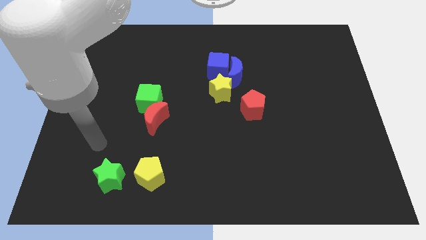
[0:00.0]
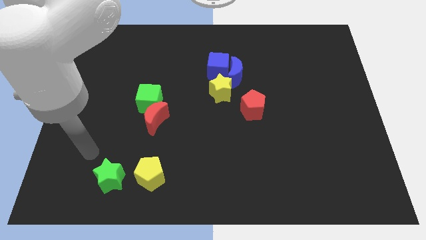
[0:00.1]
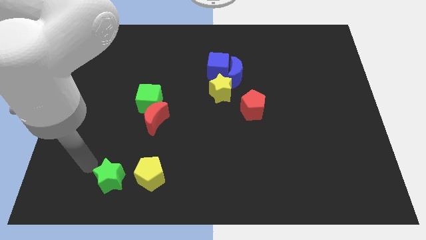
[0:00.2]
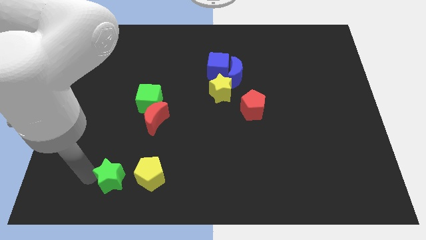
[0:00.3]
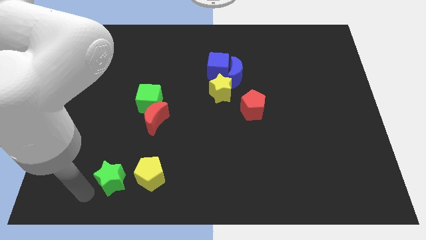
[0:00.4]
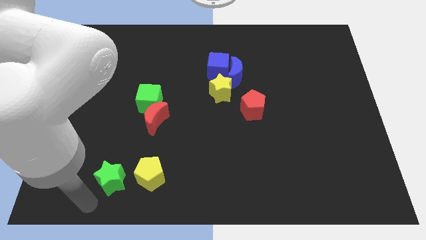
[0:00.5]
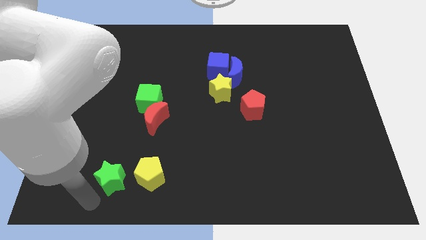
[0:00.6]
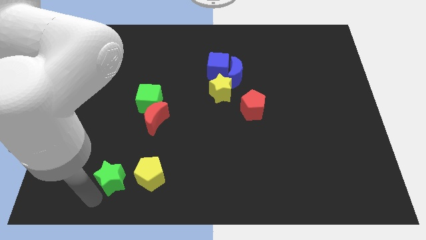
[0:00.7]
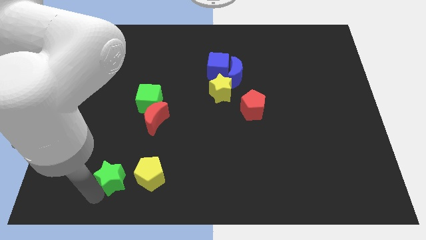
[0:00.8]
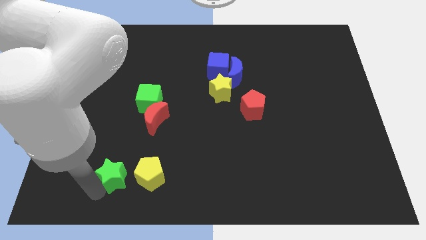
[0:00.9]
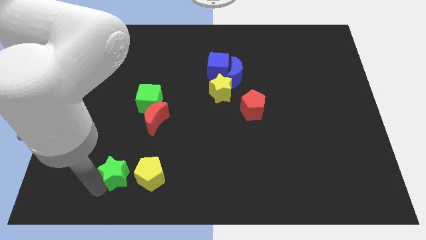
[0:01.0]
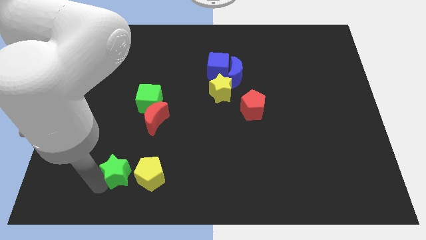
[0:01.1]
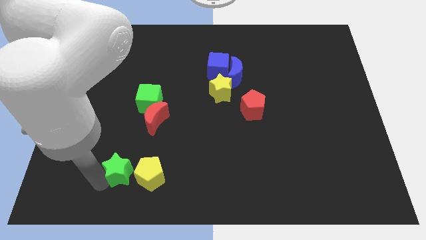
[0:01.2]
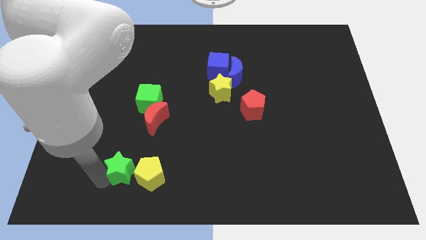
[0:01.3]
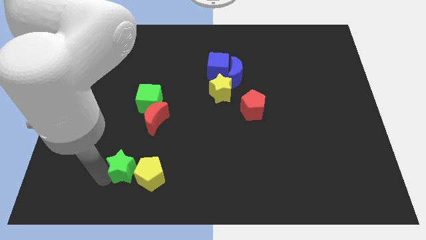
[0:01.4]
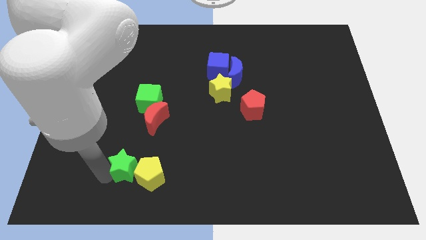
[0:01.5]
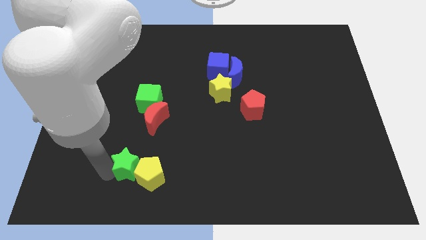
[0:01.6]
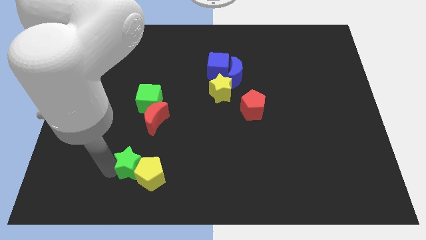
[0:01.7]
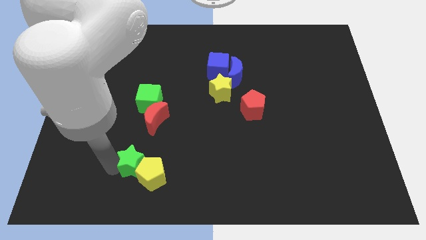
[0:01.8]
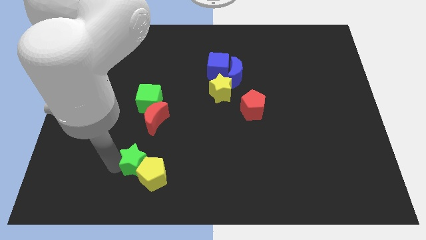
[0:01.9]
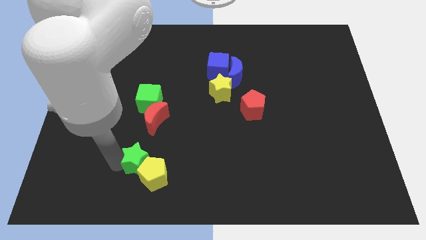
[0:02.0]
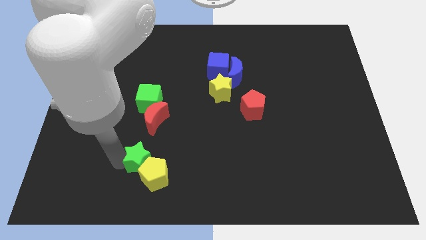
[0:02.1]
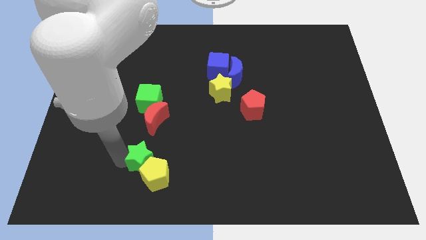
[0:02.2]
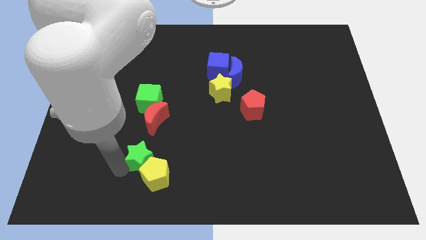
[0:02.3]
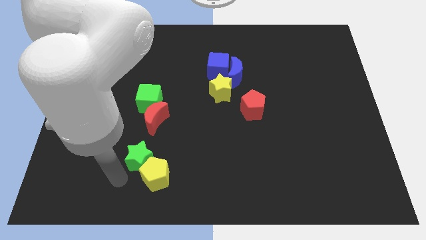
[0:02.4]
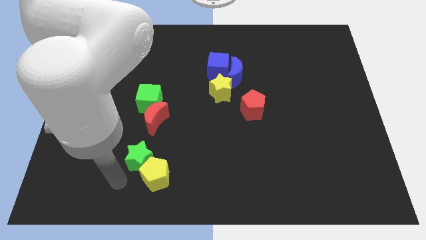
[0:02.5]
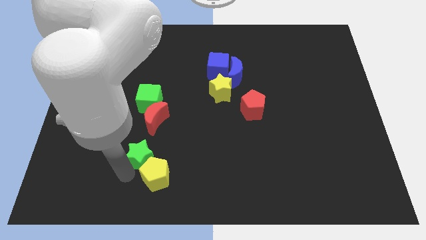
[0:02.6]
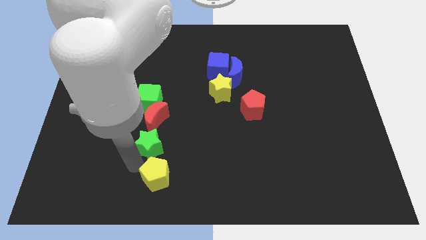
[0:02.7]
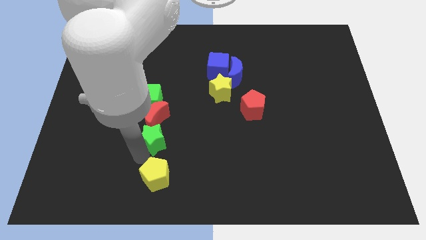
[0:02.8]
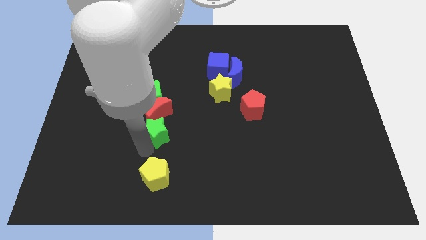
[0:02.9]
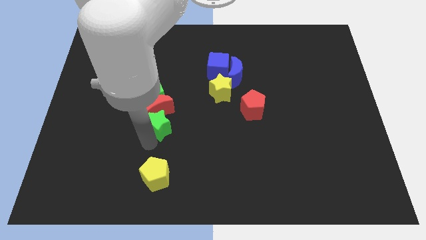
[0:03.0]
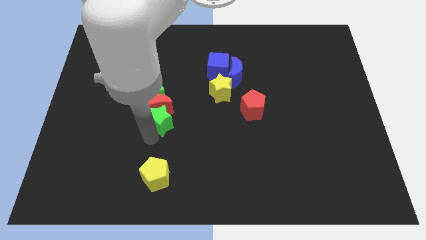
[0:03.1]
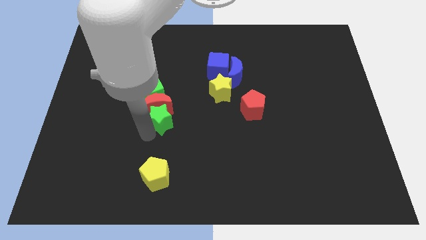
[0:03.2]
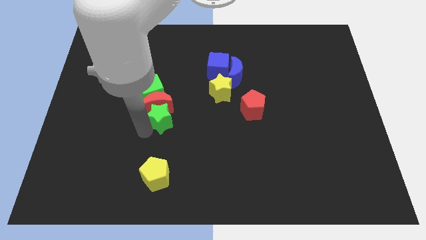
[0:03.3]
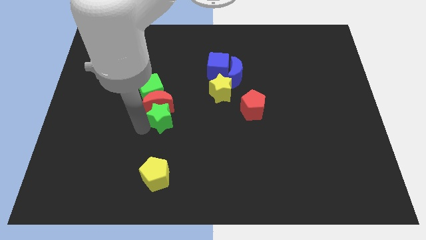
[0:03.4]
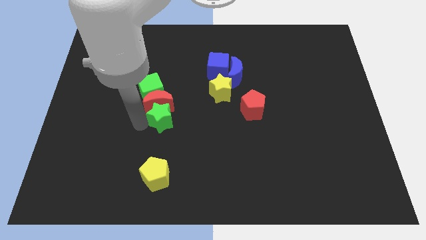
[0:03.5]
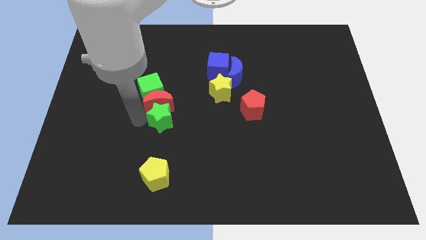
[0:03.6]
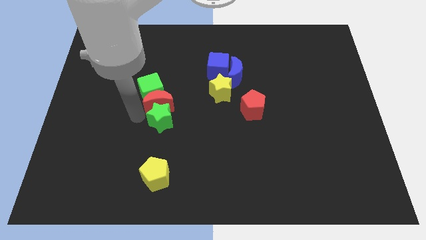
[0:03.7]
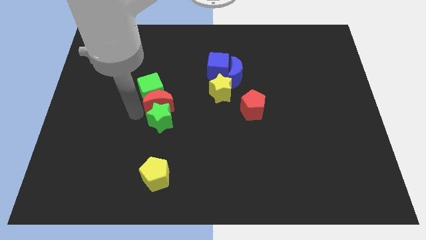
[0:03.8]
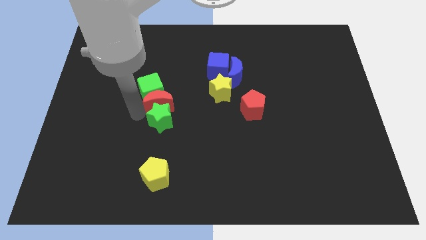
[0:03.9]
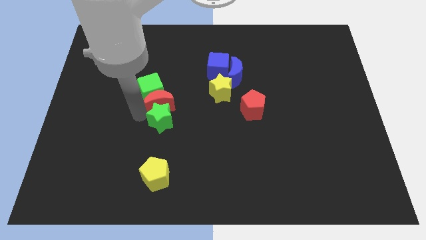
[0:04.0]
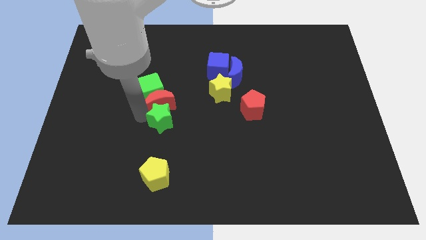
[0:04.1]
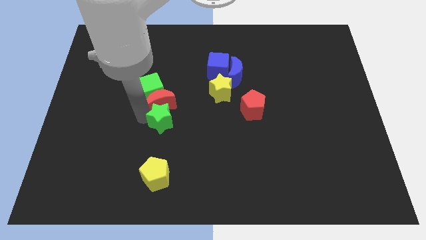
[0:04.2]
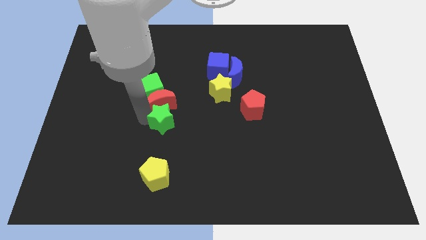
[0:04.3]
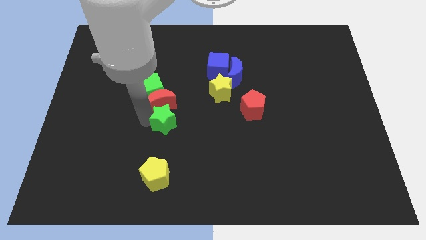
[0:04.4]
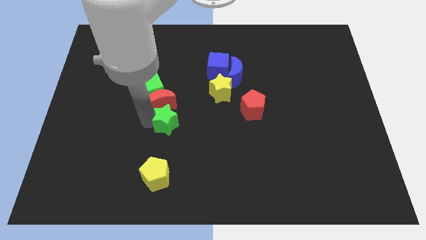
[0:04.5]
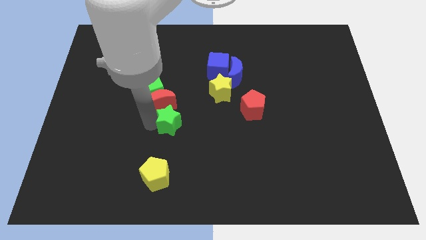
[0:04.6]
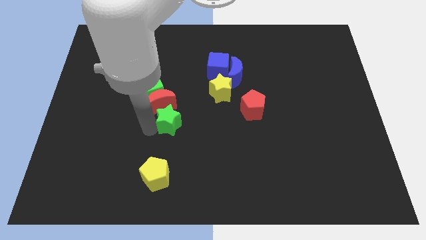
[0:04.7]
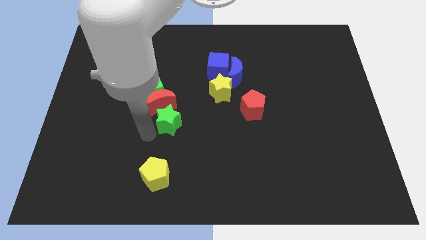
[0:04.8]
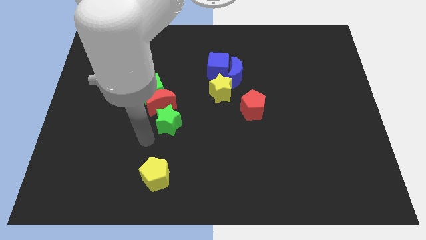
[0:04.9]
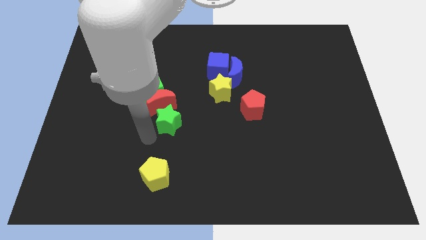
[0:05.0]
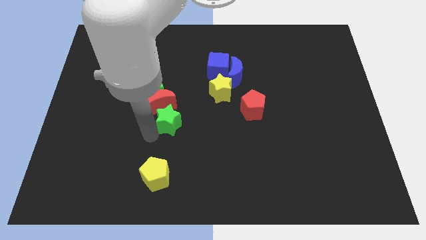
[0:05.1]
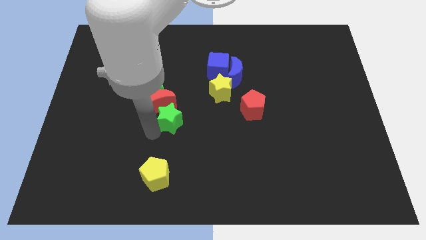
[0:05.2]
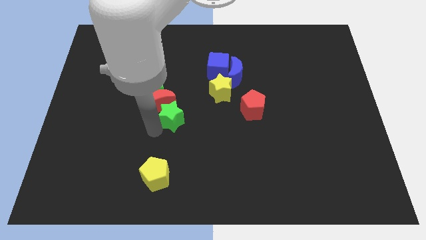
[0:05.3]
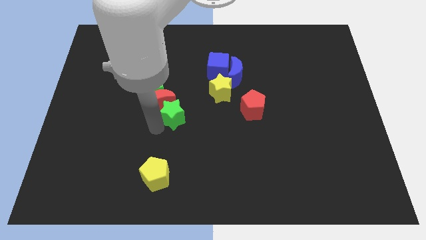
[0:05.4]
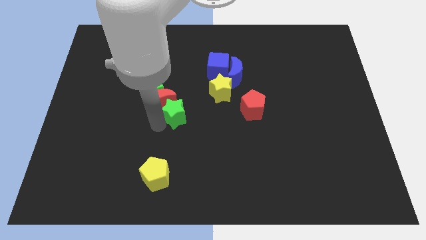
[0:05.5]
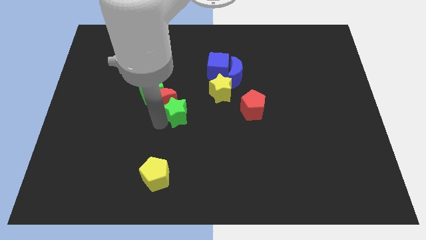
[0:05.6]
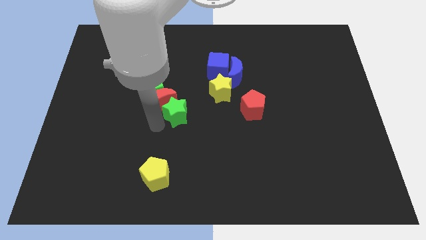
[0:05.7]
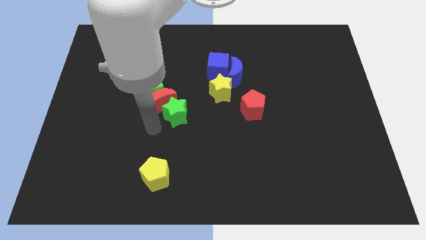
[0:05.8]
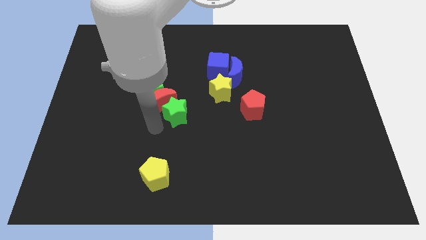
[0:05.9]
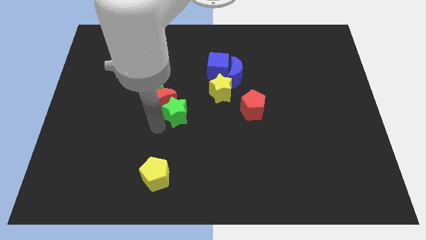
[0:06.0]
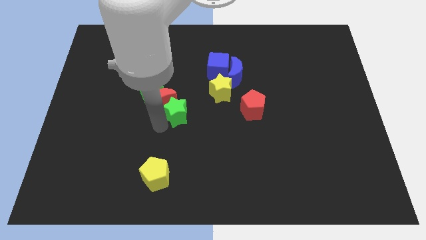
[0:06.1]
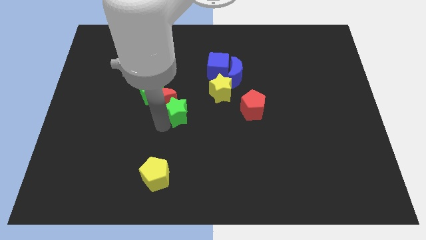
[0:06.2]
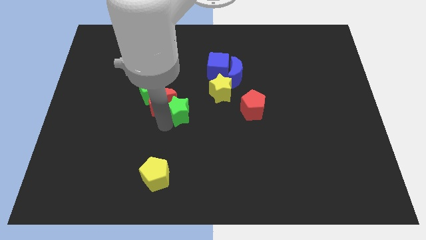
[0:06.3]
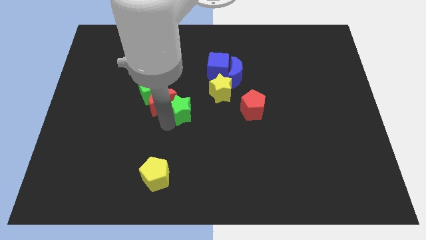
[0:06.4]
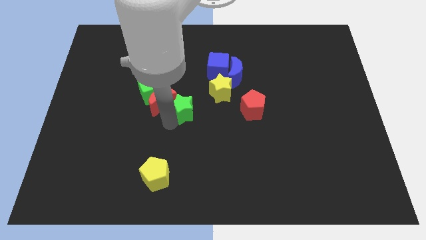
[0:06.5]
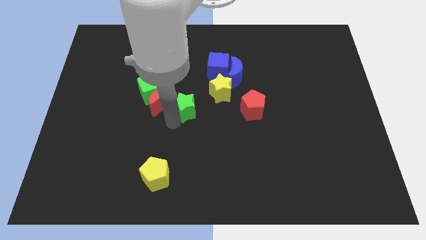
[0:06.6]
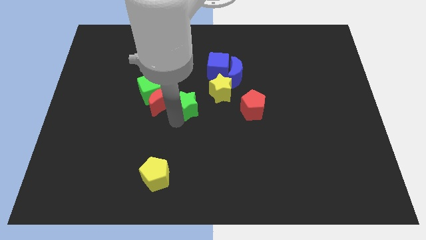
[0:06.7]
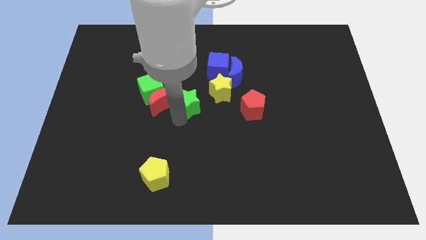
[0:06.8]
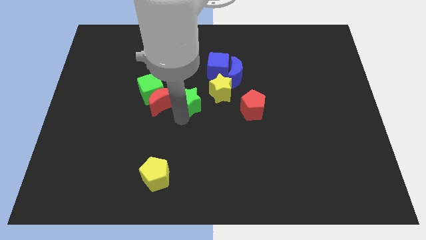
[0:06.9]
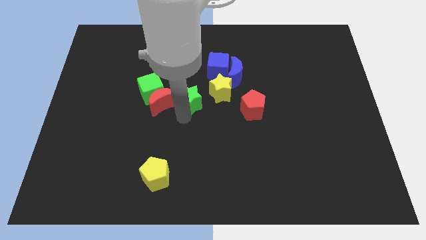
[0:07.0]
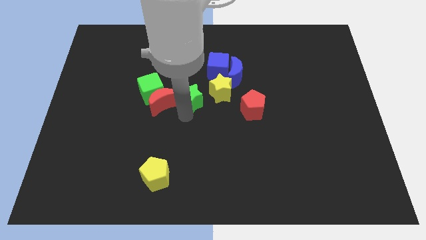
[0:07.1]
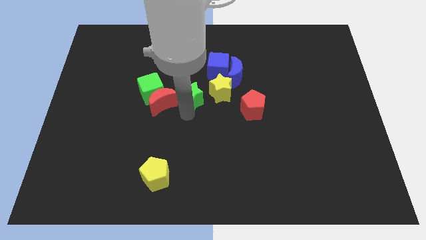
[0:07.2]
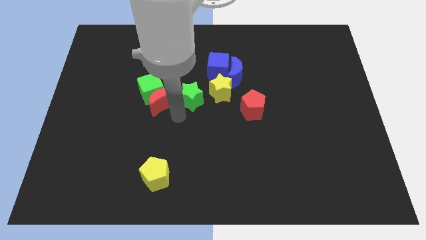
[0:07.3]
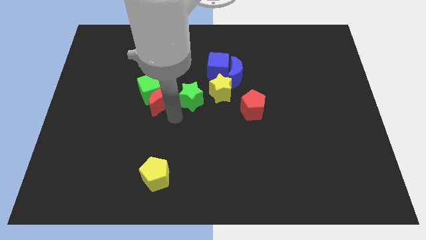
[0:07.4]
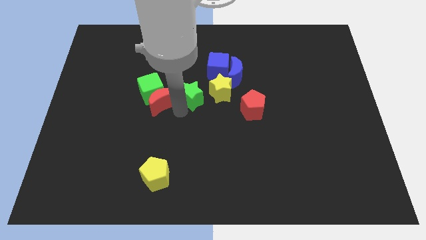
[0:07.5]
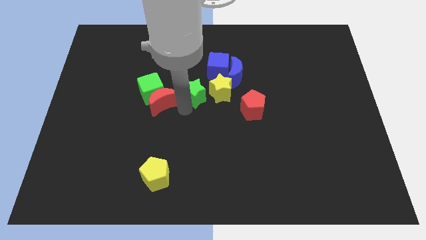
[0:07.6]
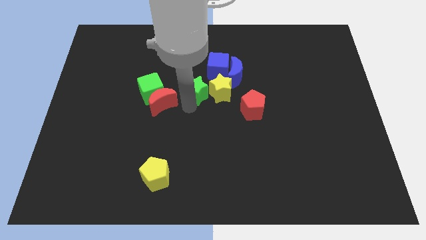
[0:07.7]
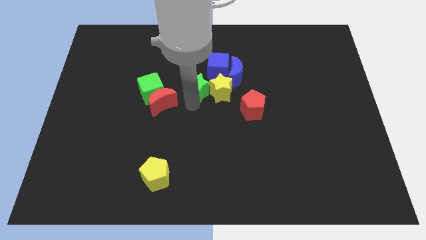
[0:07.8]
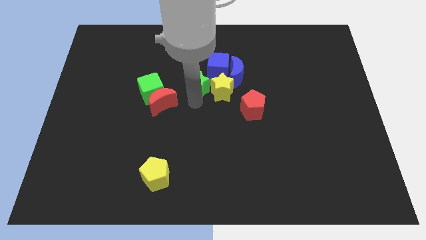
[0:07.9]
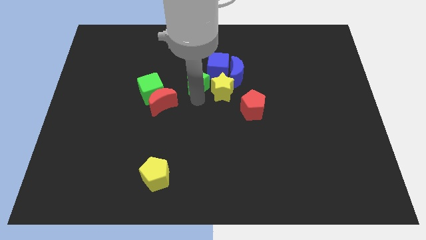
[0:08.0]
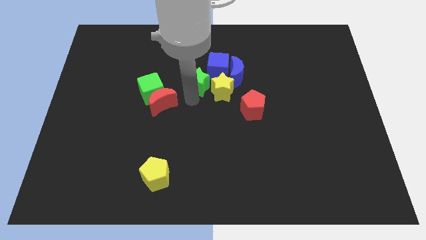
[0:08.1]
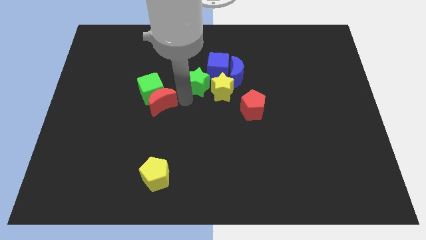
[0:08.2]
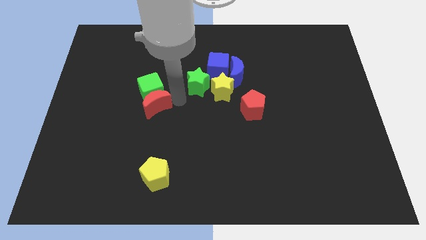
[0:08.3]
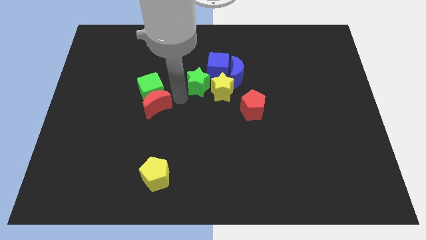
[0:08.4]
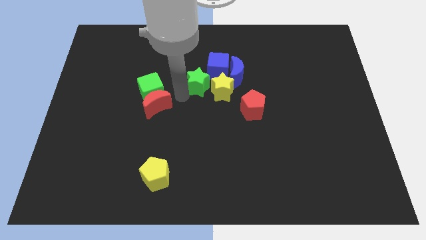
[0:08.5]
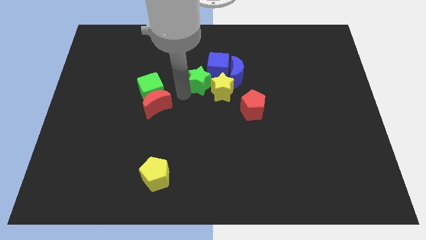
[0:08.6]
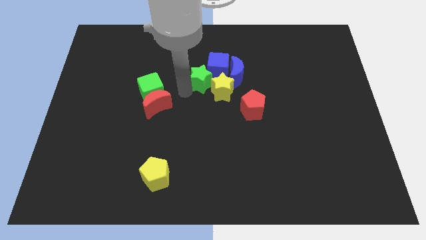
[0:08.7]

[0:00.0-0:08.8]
move the green star to the blue cube
